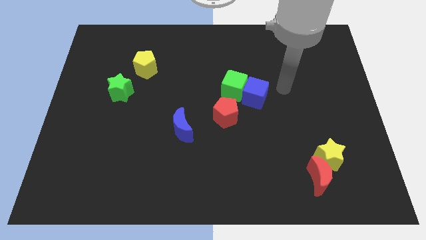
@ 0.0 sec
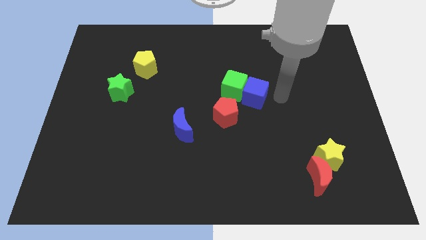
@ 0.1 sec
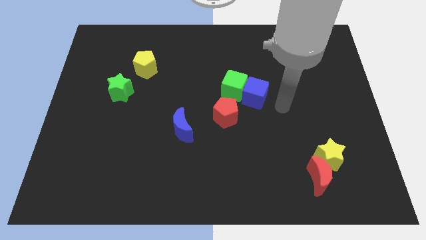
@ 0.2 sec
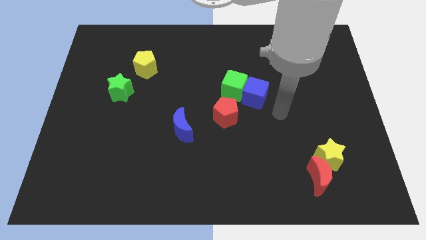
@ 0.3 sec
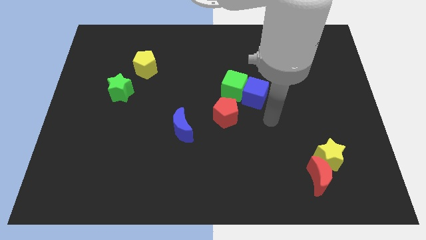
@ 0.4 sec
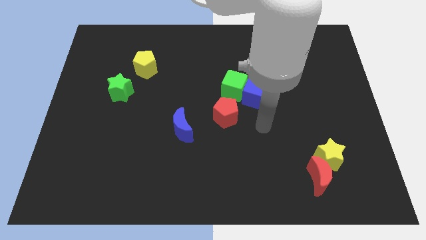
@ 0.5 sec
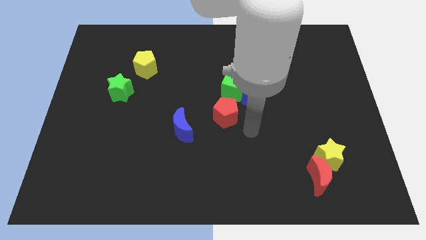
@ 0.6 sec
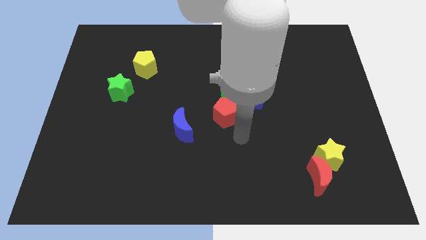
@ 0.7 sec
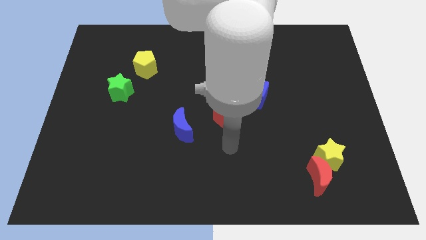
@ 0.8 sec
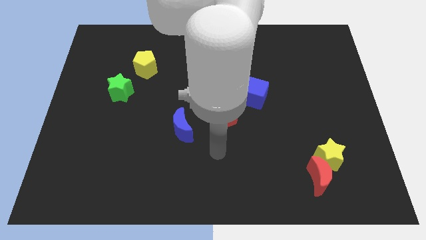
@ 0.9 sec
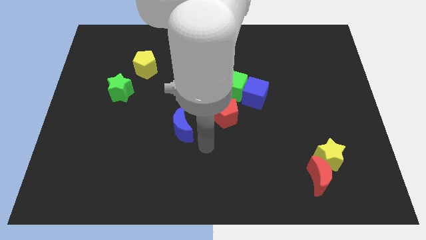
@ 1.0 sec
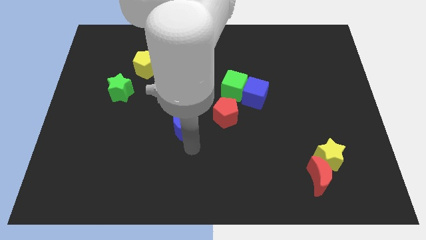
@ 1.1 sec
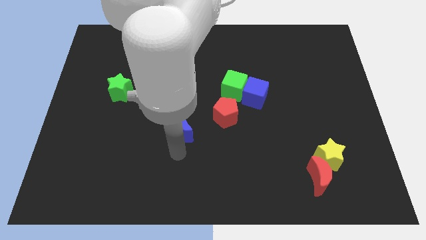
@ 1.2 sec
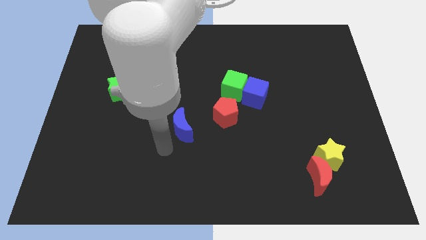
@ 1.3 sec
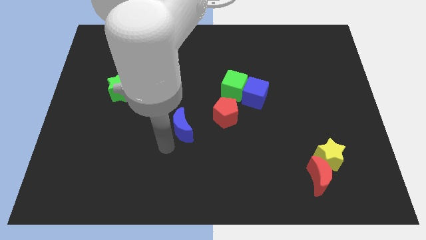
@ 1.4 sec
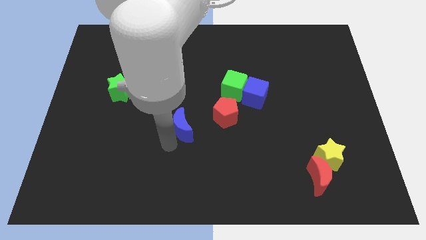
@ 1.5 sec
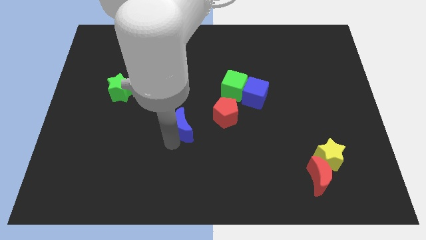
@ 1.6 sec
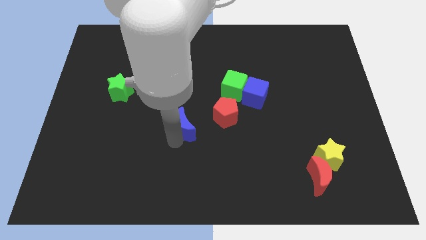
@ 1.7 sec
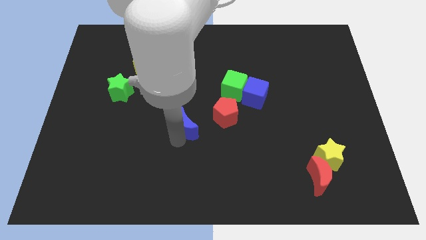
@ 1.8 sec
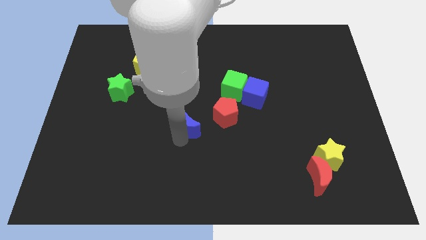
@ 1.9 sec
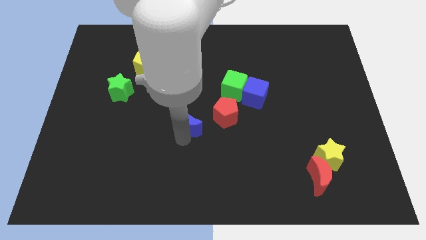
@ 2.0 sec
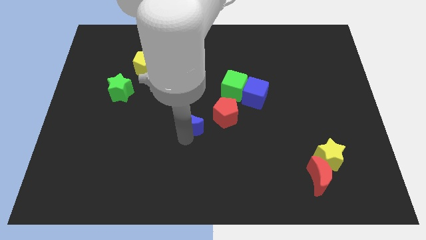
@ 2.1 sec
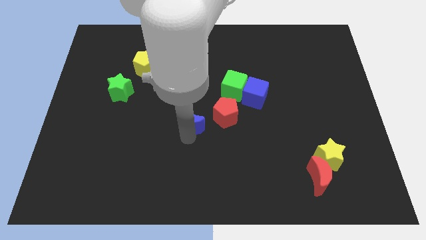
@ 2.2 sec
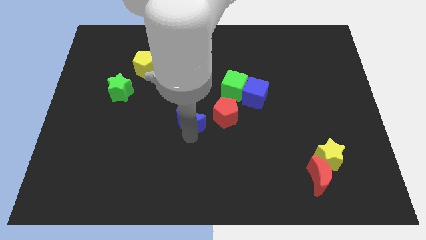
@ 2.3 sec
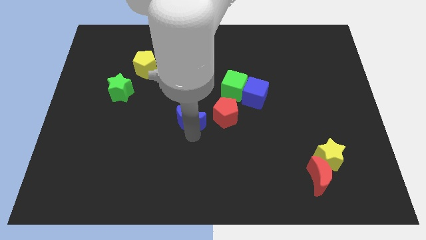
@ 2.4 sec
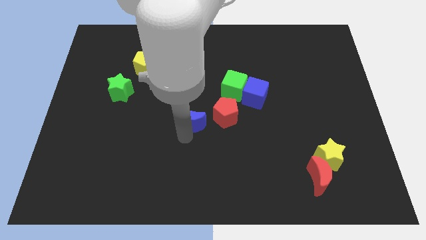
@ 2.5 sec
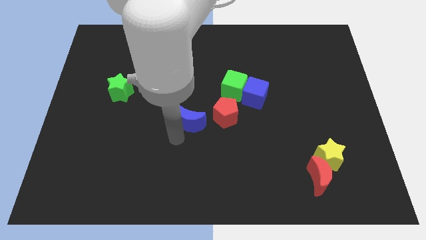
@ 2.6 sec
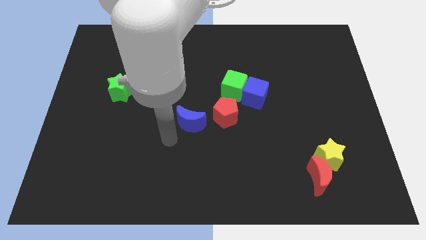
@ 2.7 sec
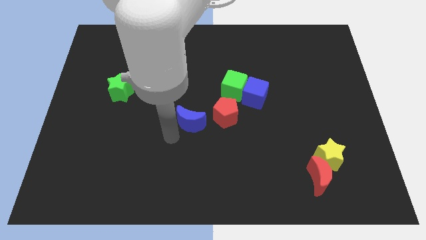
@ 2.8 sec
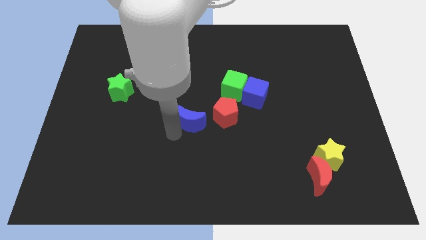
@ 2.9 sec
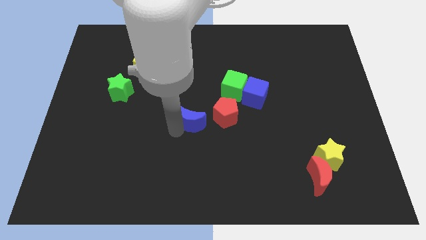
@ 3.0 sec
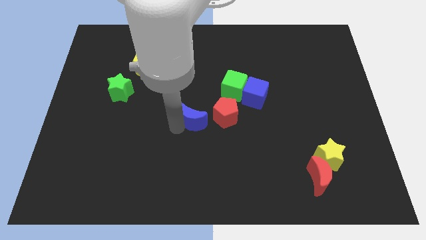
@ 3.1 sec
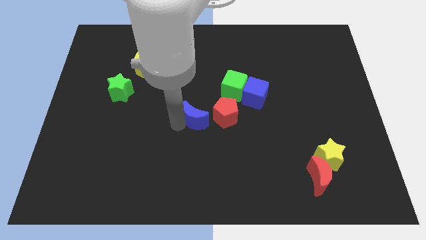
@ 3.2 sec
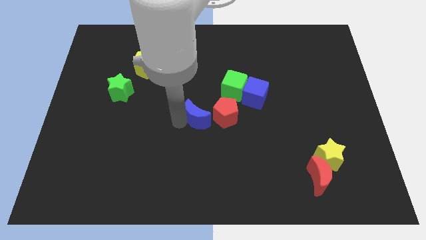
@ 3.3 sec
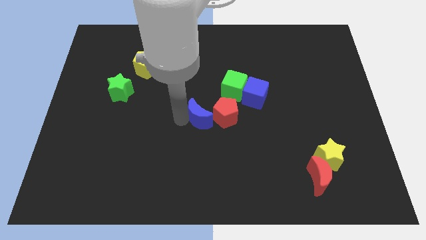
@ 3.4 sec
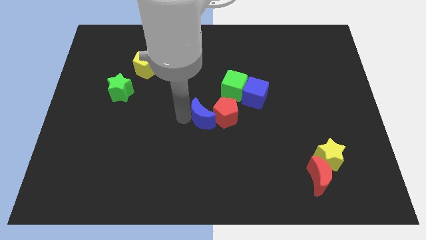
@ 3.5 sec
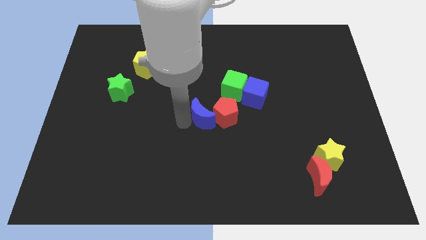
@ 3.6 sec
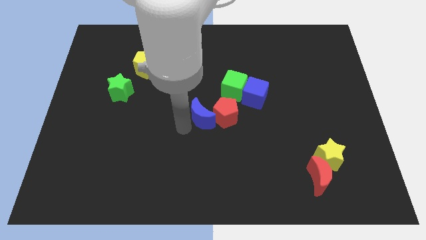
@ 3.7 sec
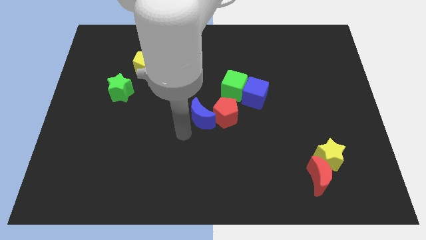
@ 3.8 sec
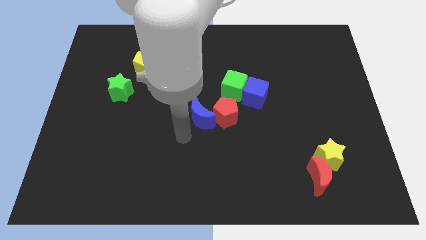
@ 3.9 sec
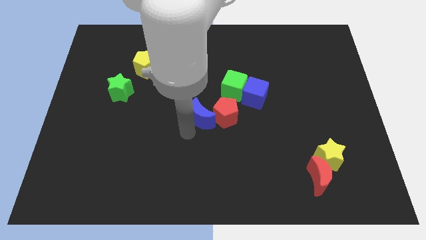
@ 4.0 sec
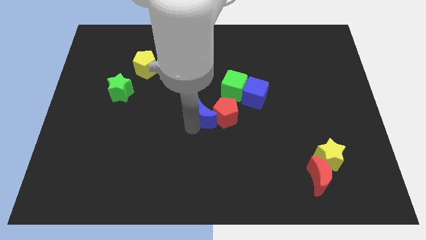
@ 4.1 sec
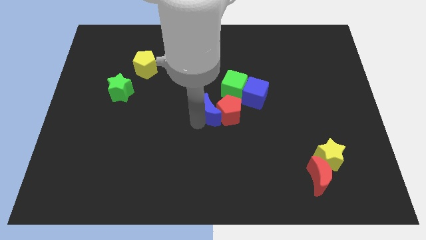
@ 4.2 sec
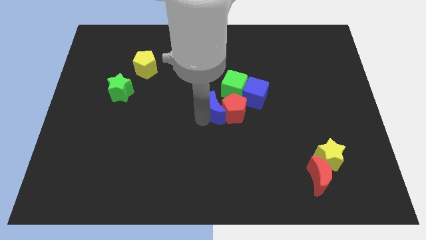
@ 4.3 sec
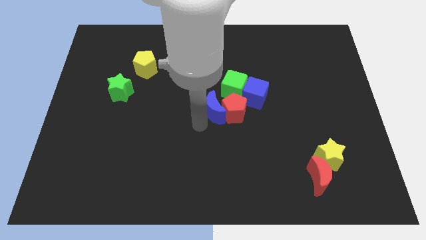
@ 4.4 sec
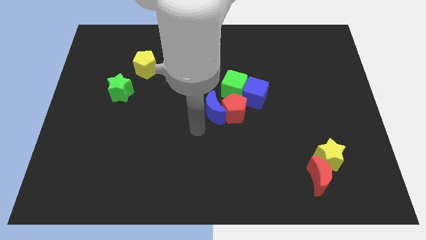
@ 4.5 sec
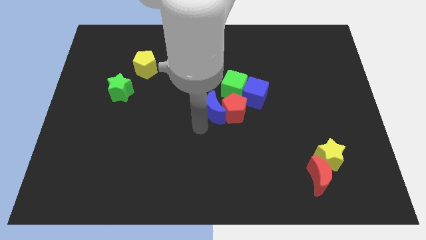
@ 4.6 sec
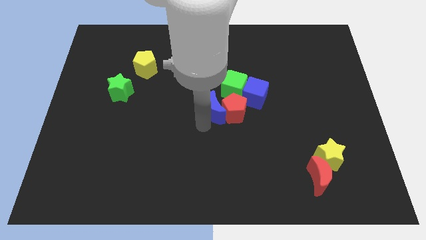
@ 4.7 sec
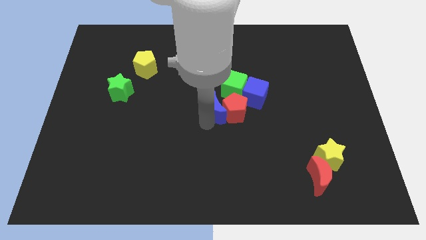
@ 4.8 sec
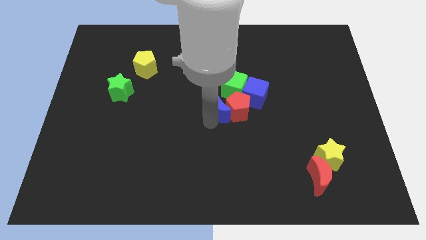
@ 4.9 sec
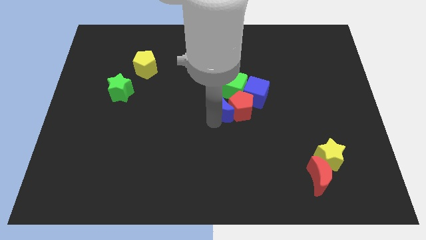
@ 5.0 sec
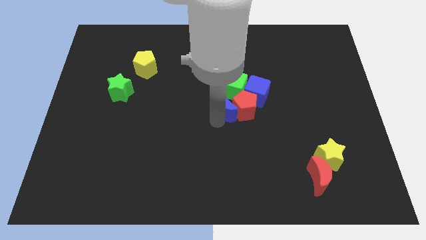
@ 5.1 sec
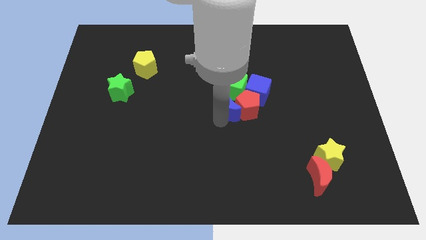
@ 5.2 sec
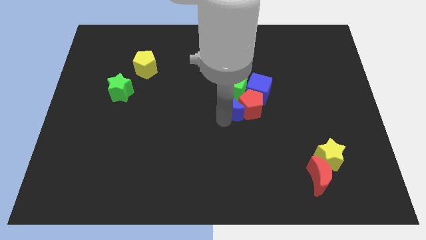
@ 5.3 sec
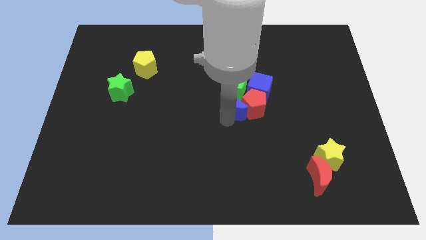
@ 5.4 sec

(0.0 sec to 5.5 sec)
slide the blue moon towards the green cube

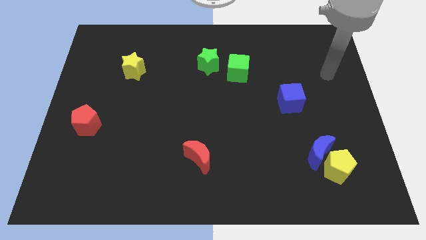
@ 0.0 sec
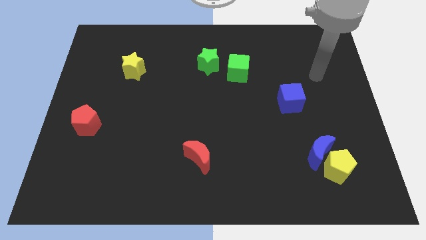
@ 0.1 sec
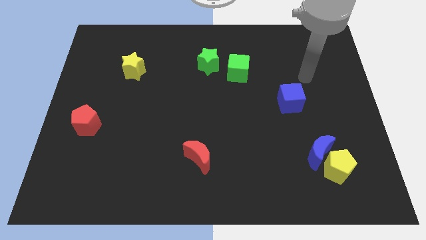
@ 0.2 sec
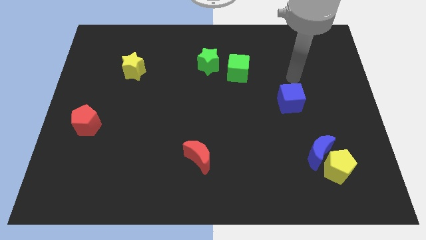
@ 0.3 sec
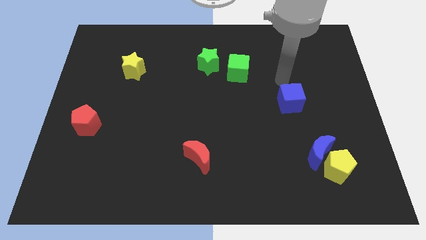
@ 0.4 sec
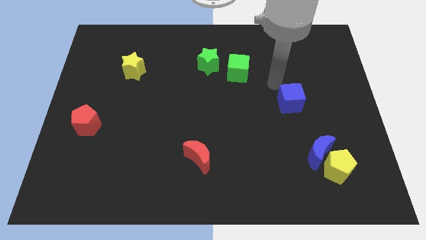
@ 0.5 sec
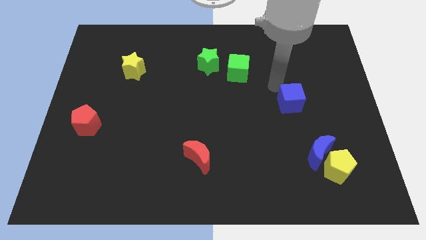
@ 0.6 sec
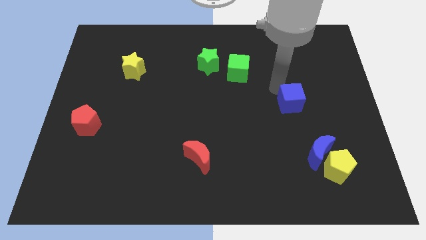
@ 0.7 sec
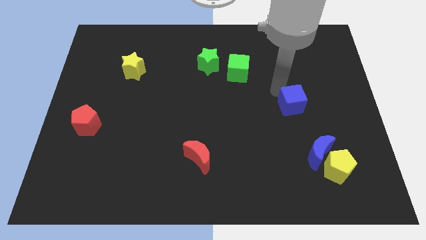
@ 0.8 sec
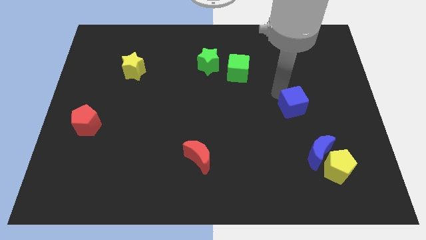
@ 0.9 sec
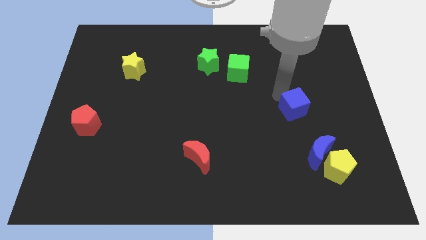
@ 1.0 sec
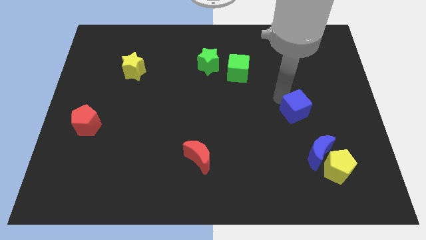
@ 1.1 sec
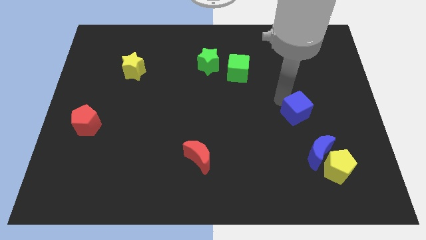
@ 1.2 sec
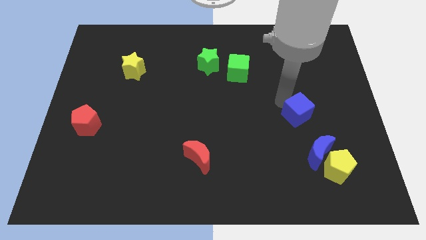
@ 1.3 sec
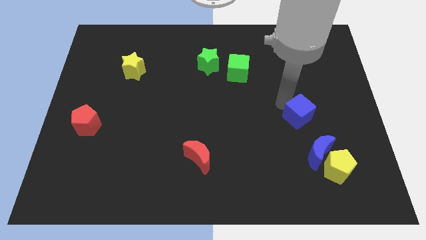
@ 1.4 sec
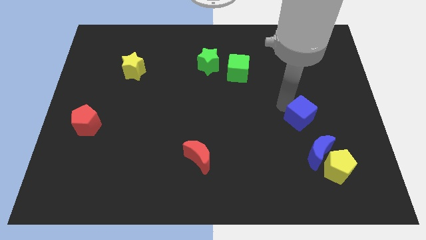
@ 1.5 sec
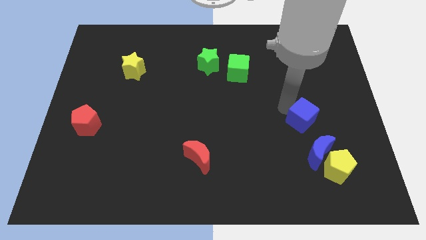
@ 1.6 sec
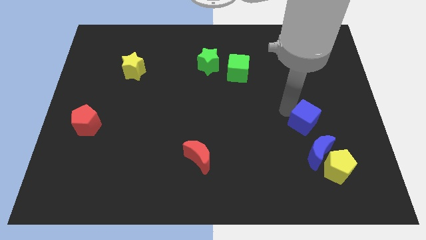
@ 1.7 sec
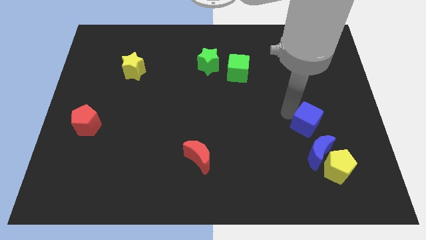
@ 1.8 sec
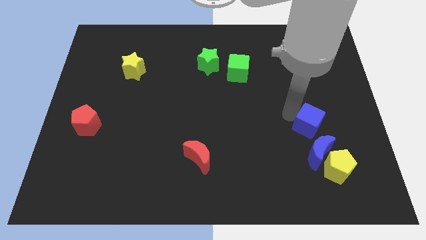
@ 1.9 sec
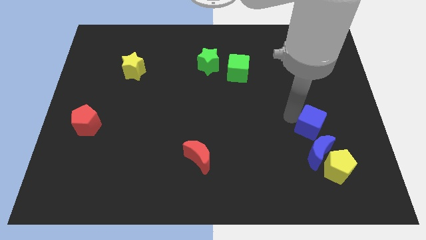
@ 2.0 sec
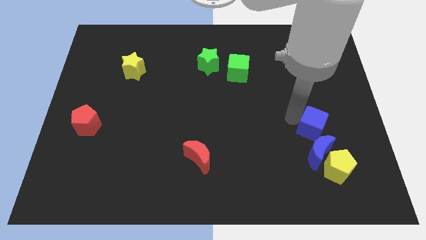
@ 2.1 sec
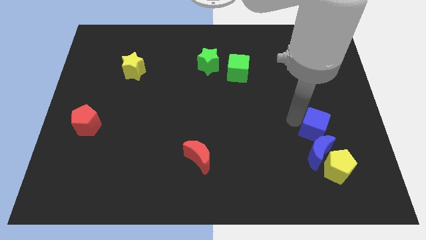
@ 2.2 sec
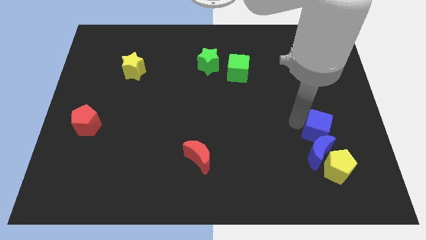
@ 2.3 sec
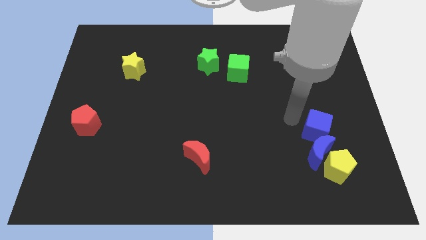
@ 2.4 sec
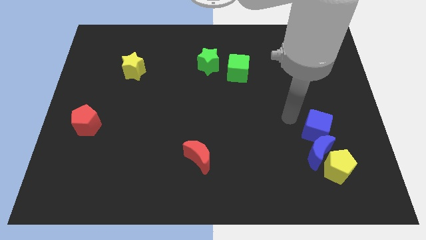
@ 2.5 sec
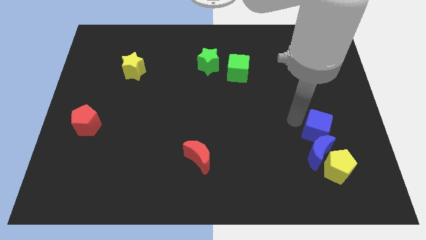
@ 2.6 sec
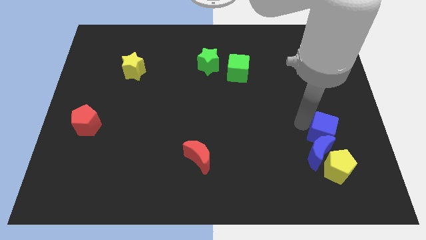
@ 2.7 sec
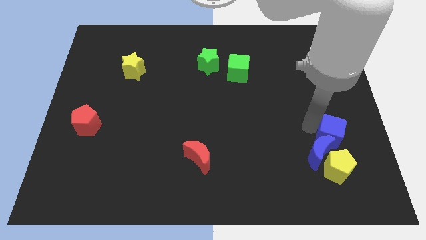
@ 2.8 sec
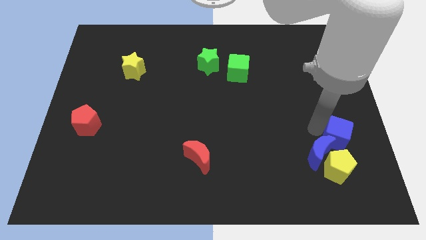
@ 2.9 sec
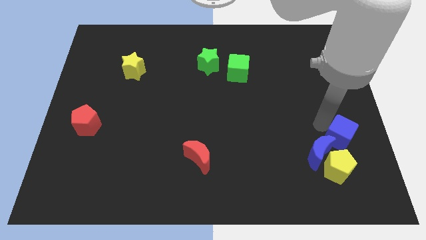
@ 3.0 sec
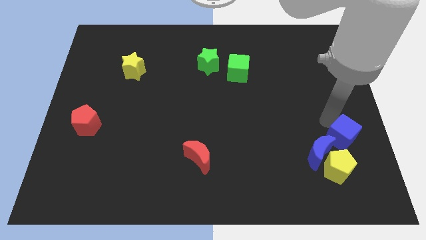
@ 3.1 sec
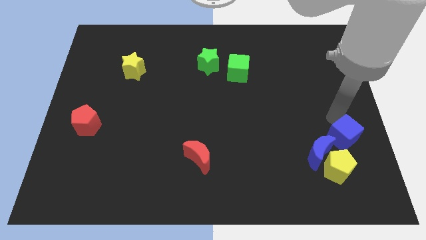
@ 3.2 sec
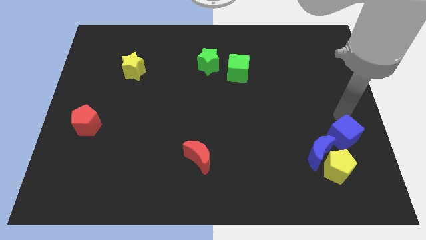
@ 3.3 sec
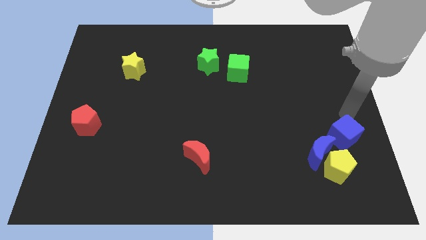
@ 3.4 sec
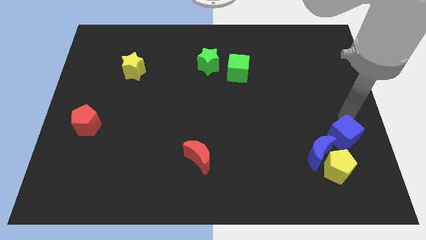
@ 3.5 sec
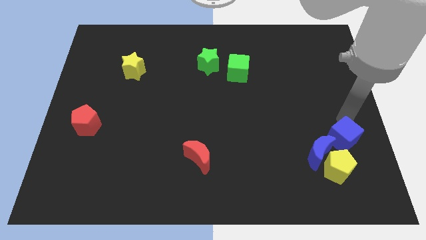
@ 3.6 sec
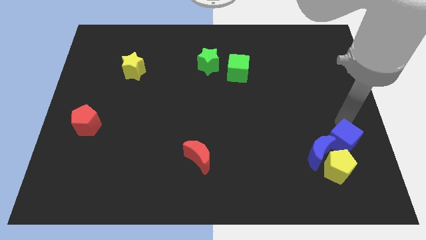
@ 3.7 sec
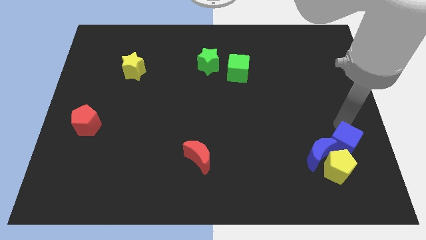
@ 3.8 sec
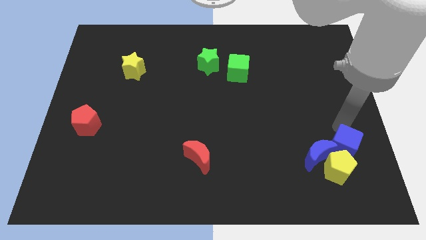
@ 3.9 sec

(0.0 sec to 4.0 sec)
move the blue cube next to the yellow pentagon
